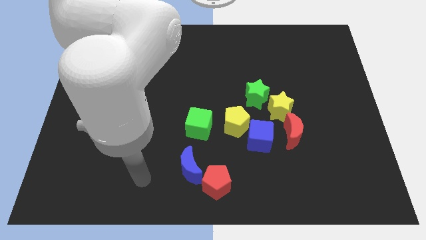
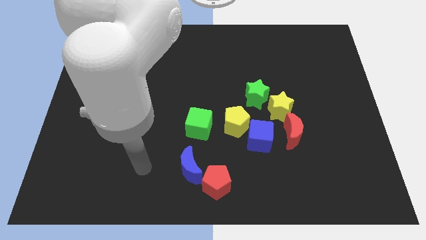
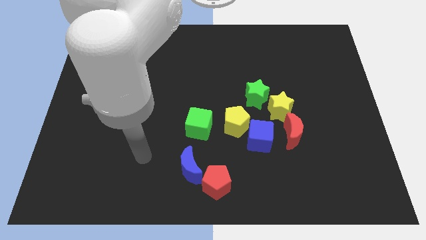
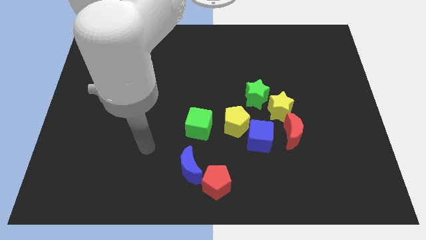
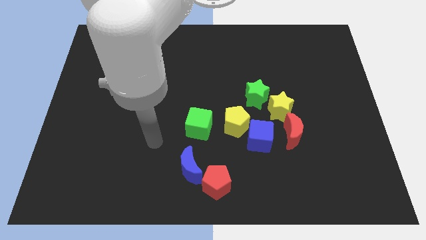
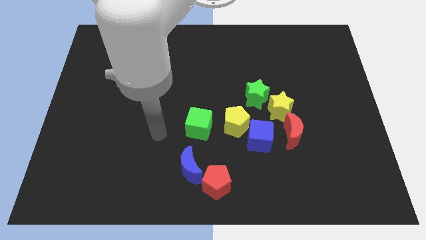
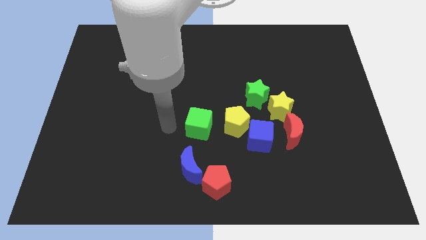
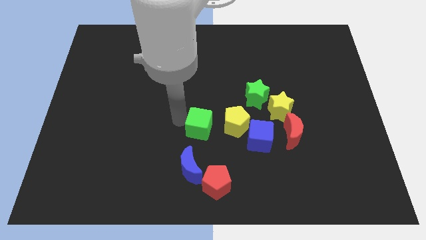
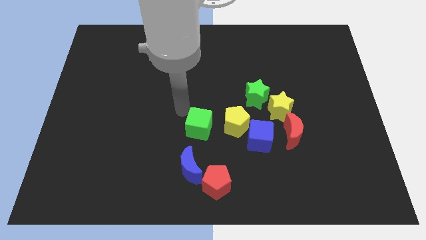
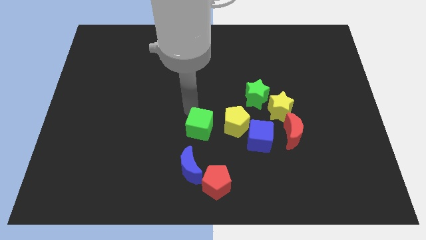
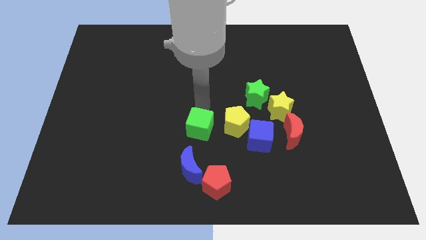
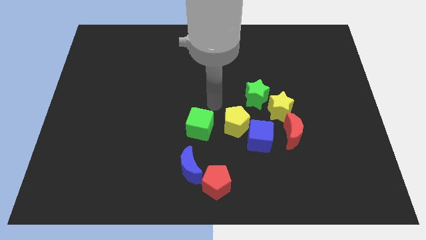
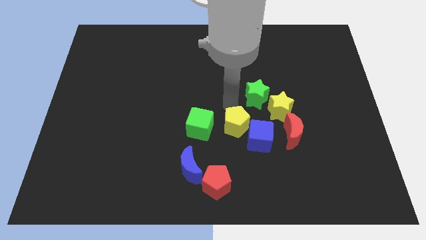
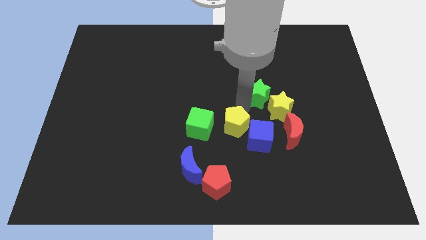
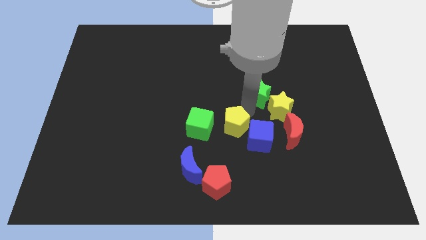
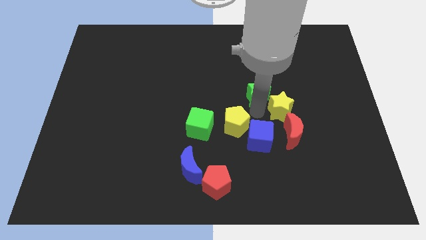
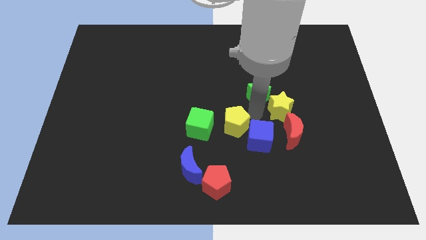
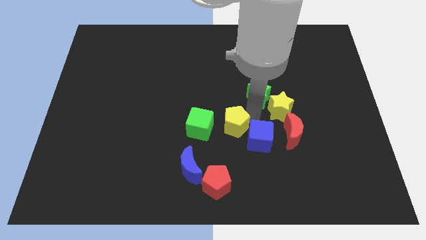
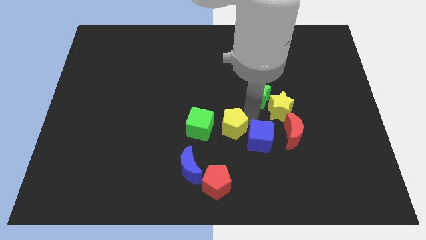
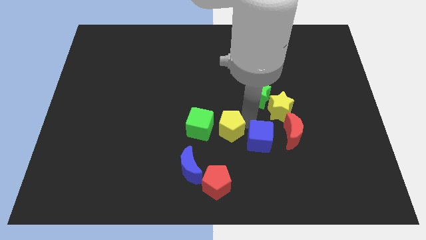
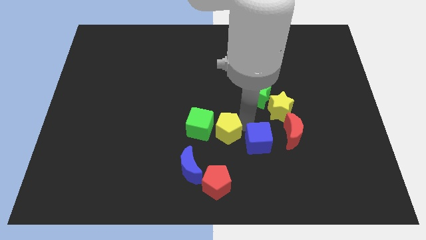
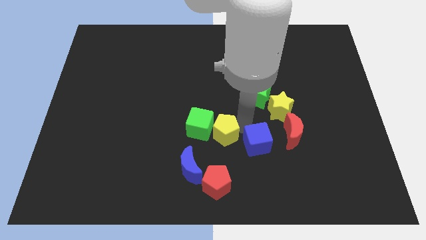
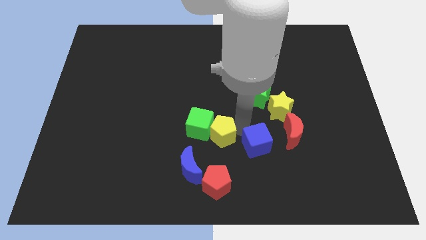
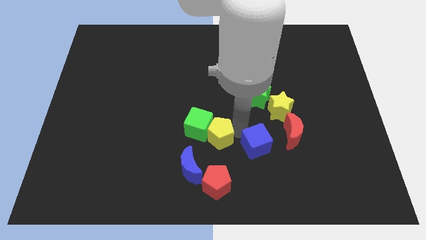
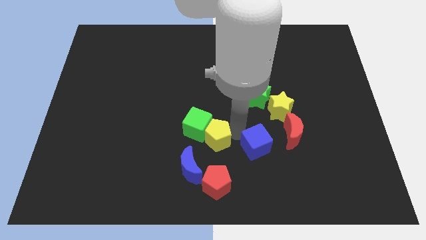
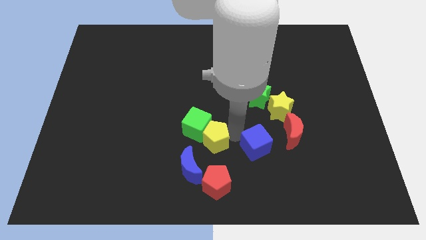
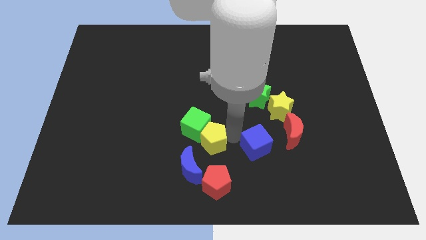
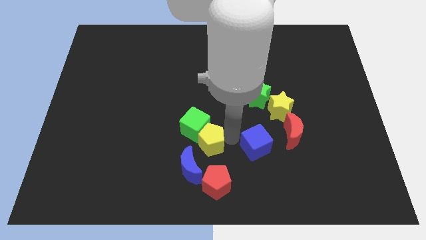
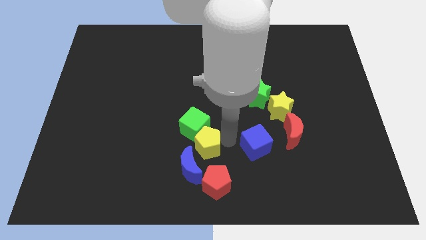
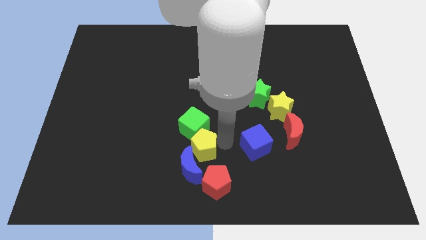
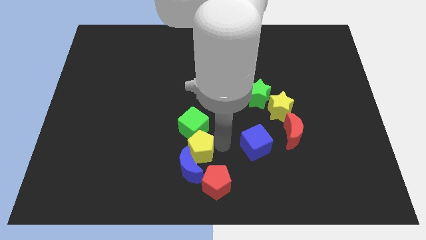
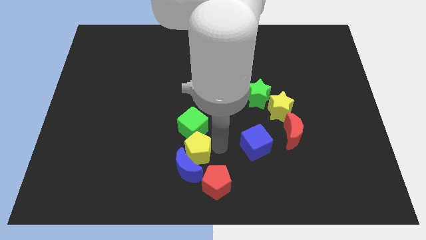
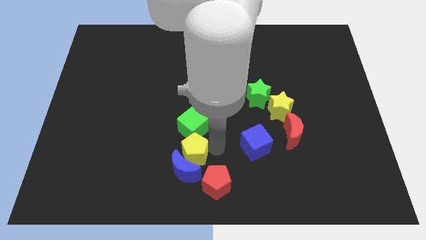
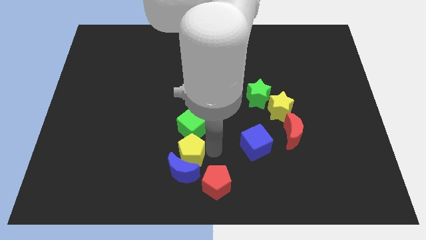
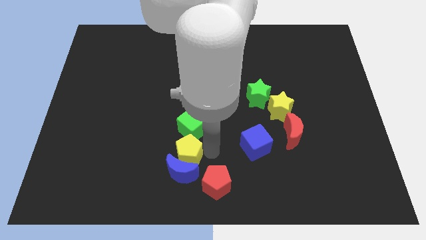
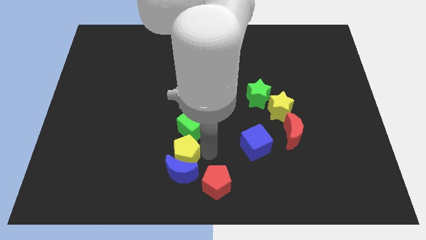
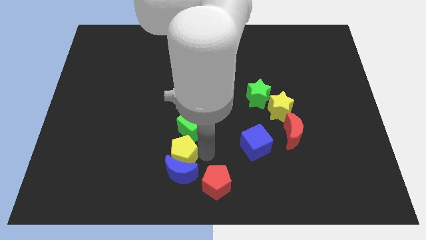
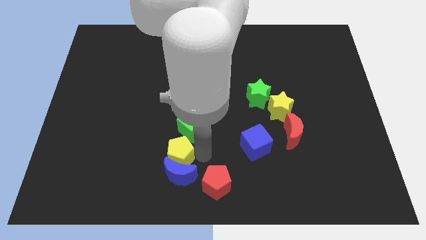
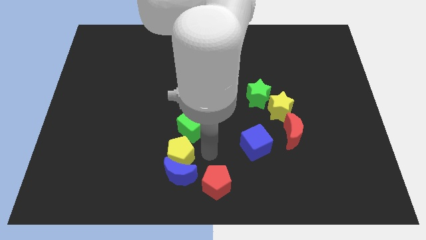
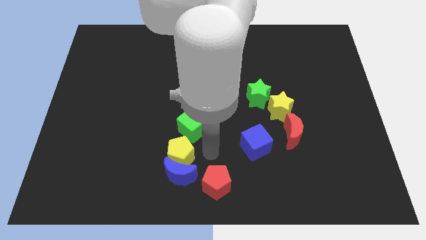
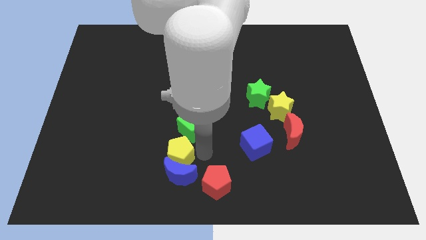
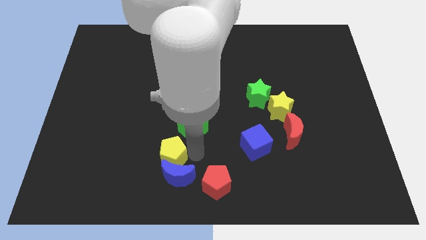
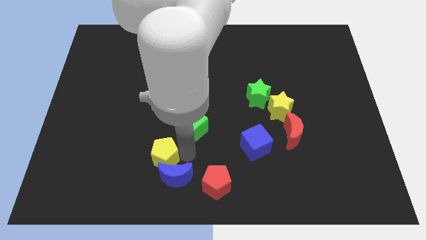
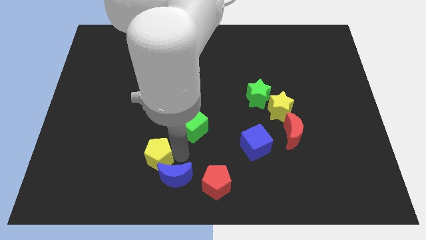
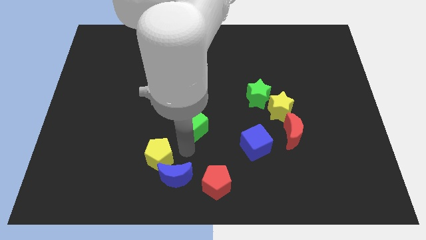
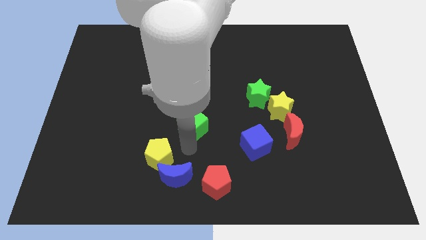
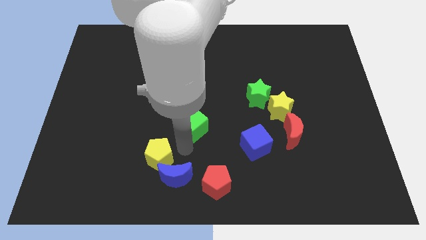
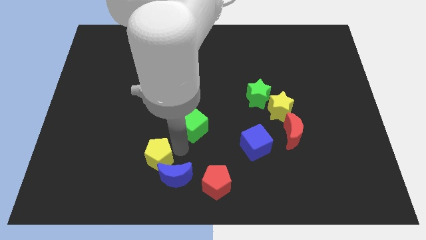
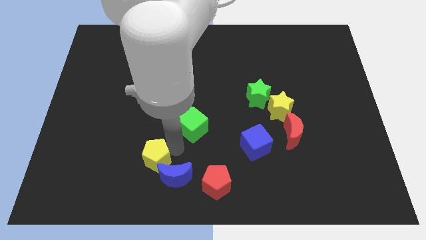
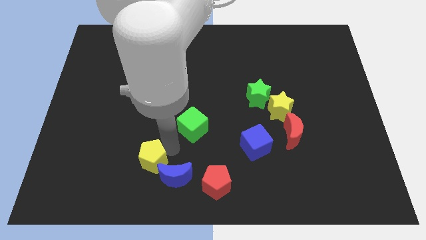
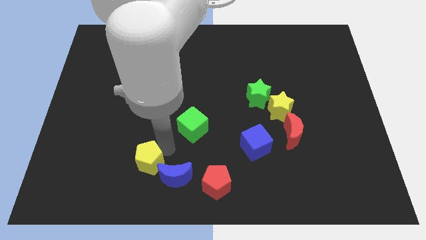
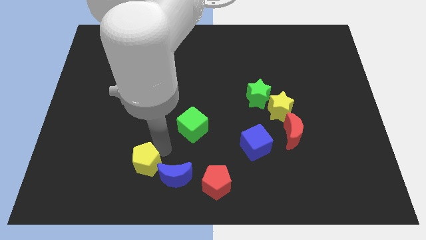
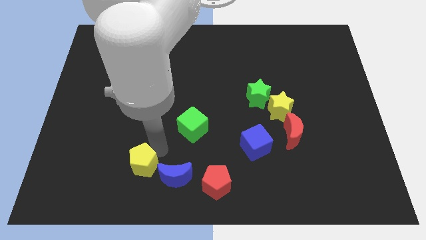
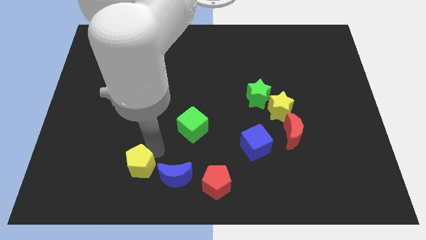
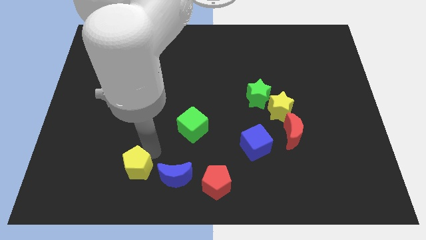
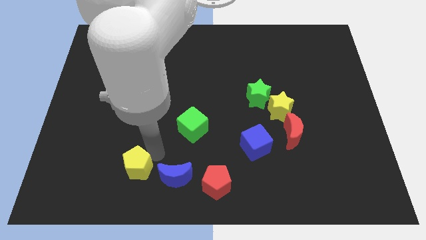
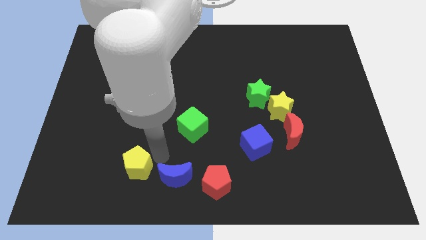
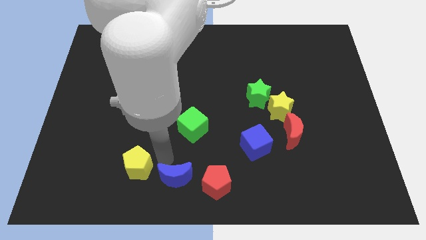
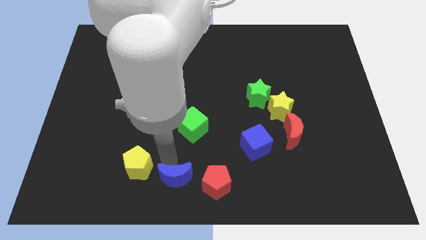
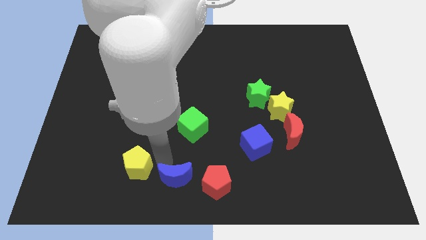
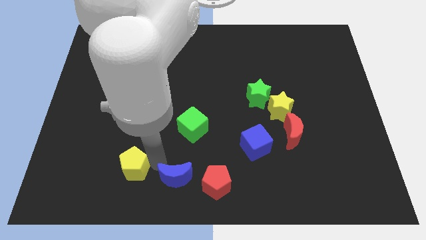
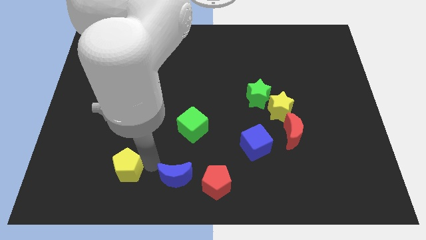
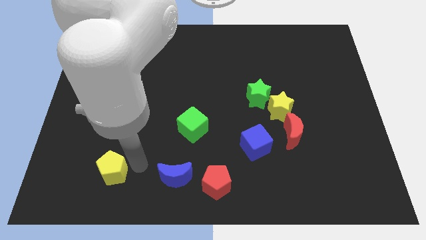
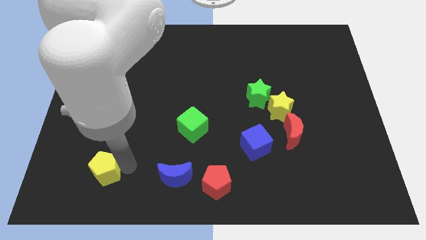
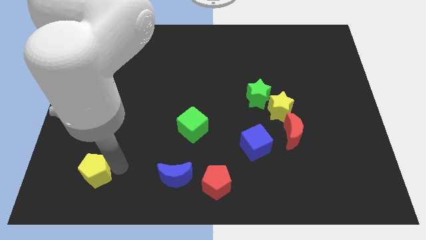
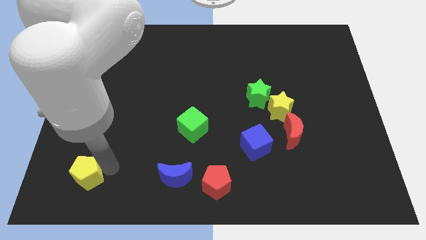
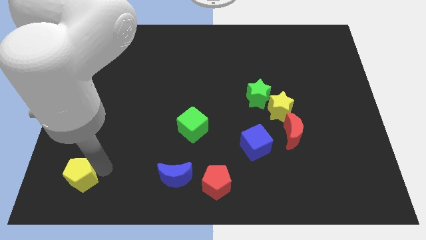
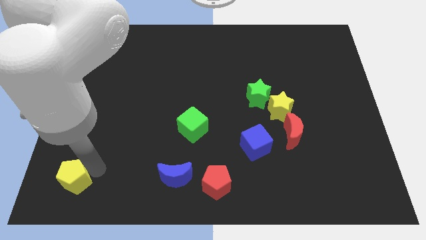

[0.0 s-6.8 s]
push the yellow pentagon to the bottom left corner

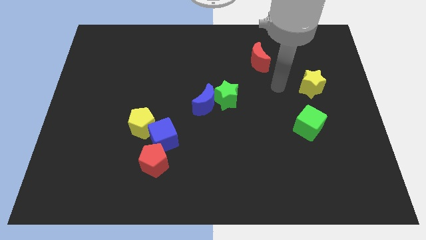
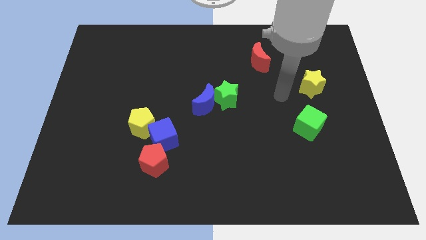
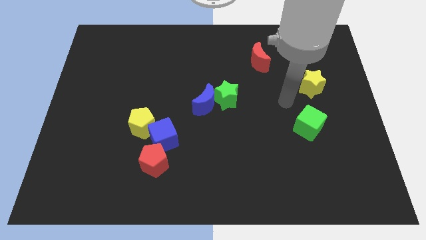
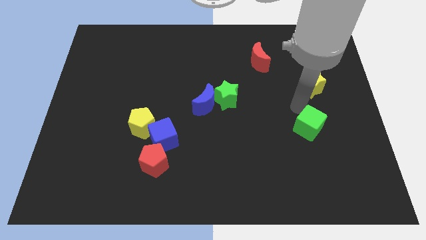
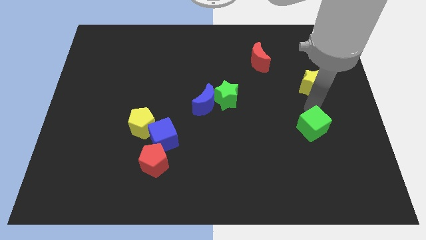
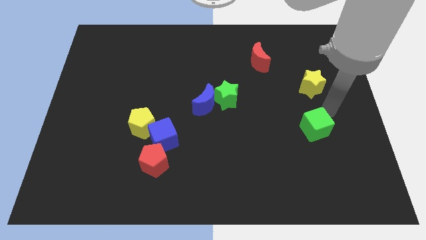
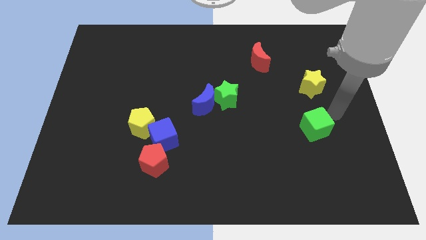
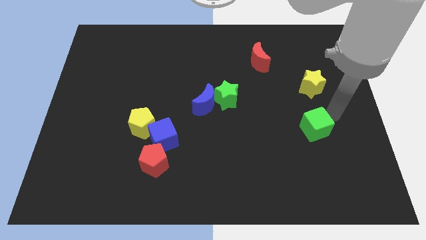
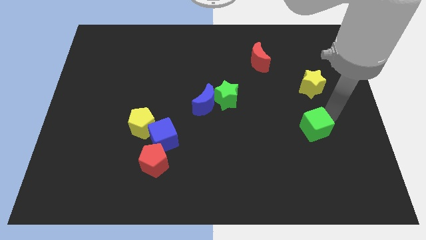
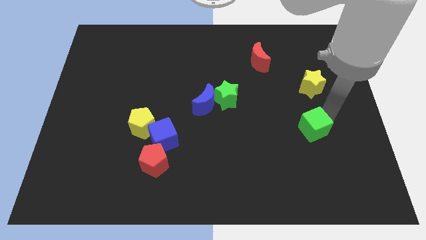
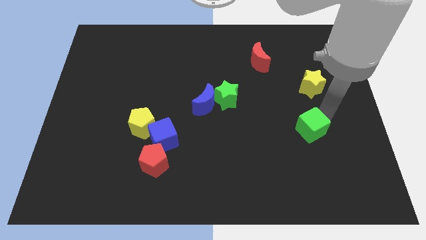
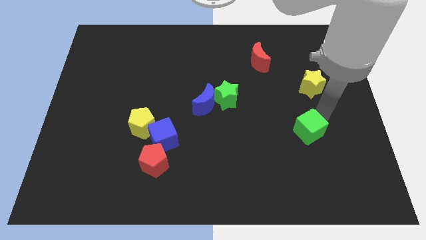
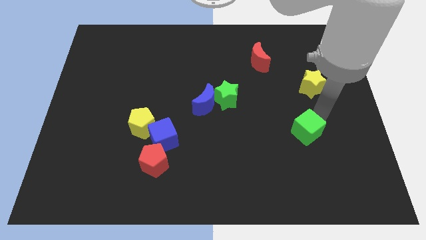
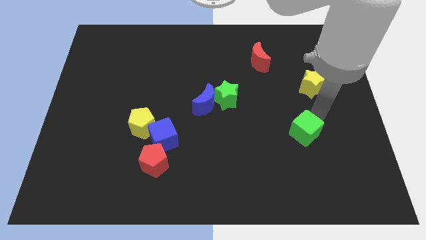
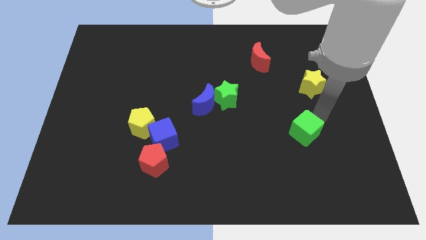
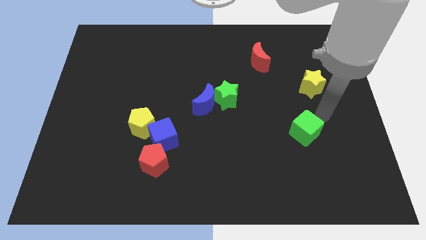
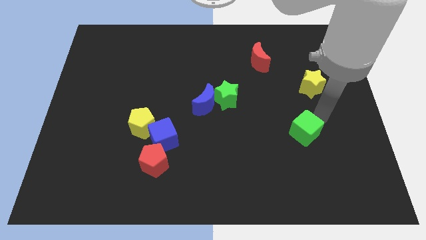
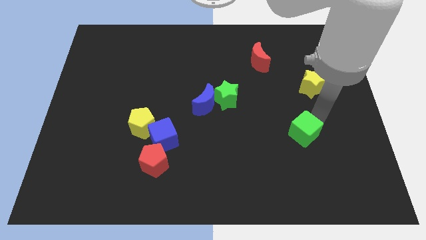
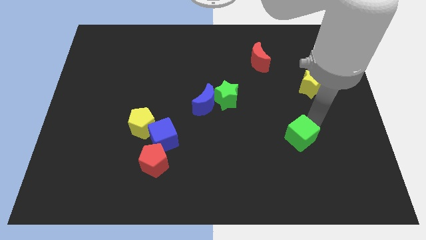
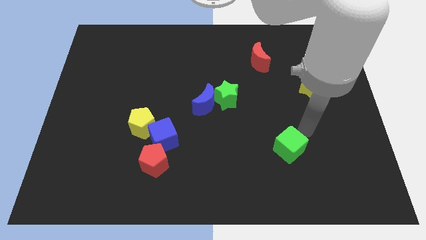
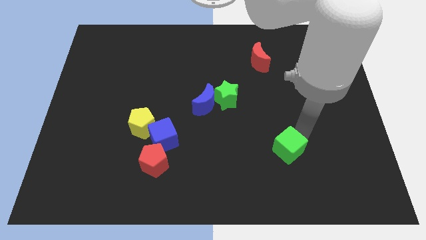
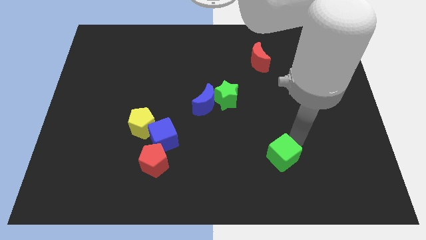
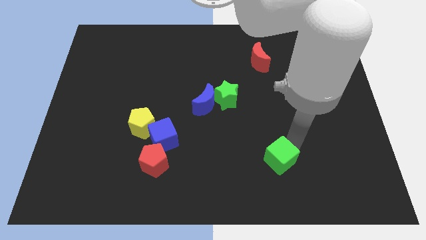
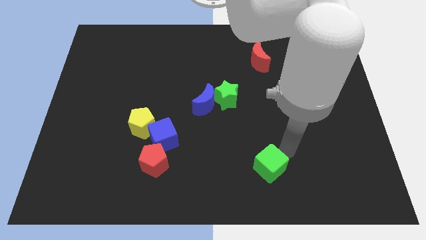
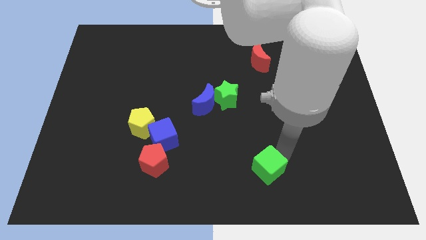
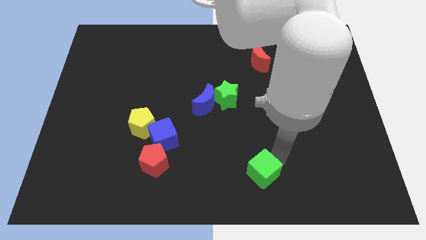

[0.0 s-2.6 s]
slide the green cube to the bottom
